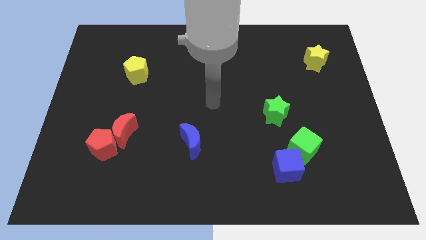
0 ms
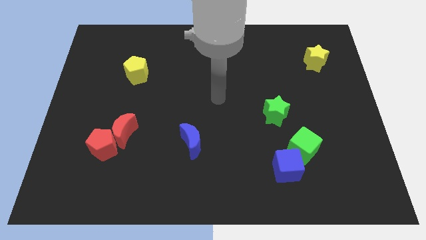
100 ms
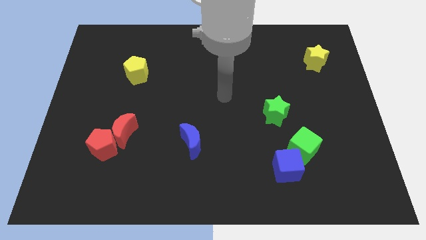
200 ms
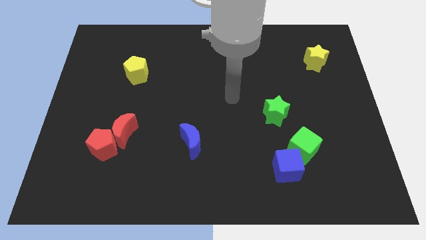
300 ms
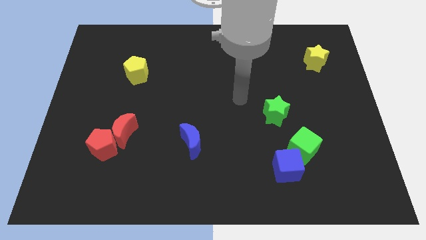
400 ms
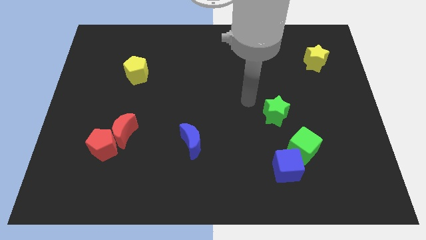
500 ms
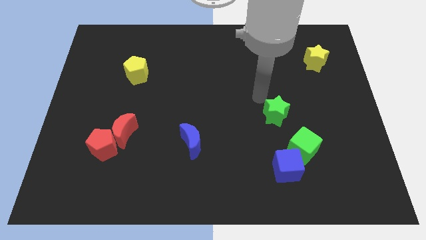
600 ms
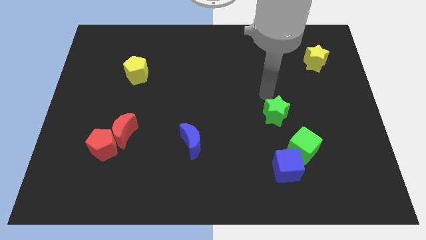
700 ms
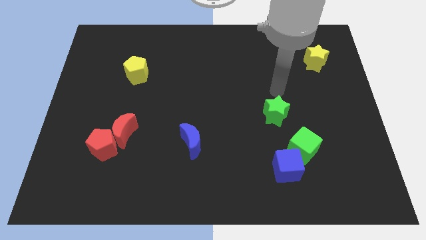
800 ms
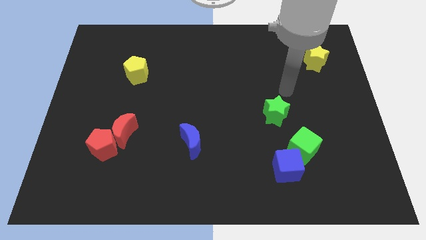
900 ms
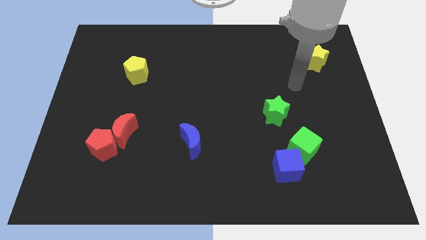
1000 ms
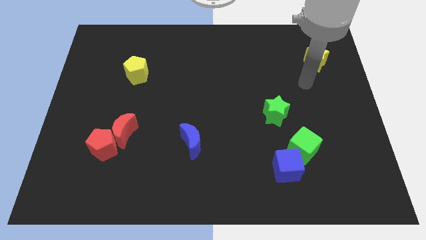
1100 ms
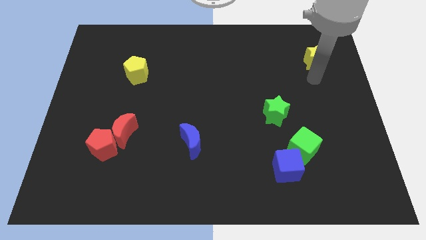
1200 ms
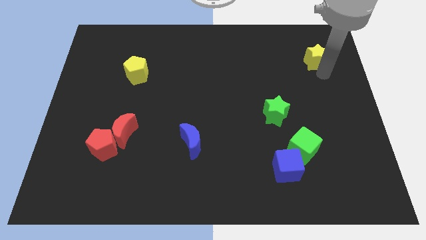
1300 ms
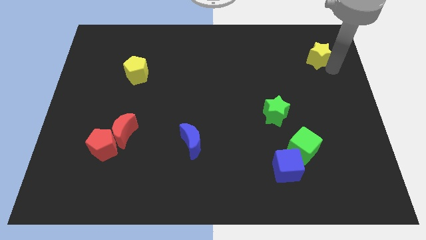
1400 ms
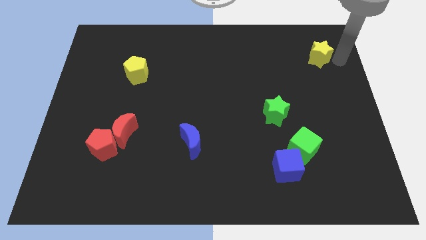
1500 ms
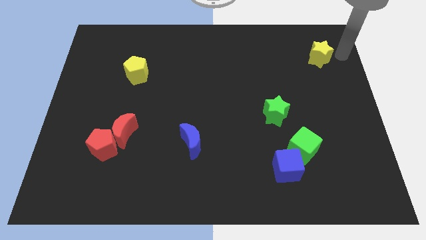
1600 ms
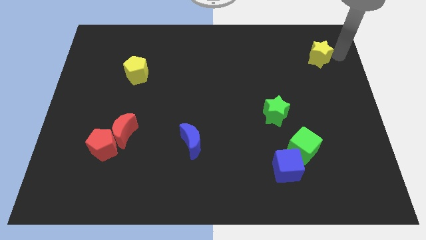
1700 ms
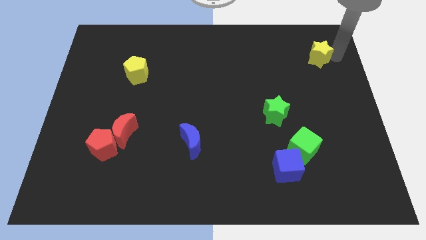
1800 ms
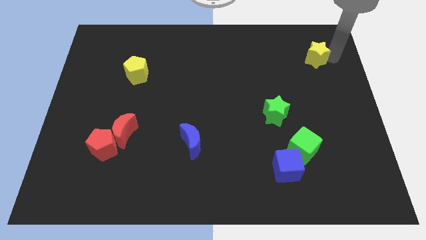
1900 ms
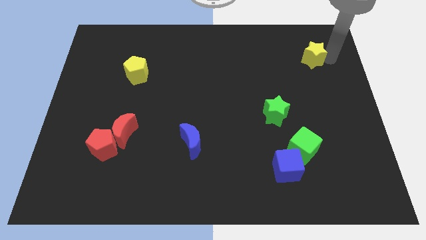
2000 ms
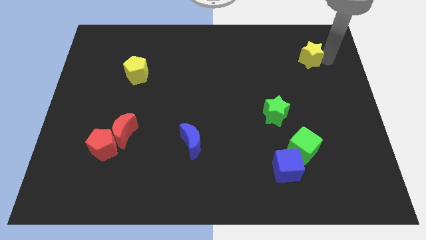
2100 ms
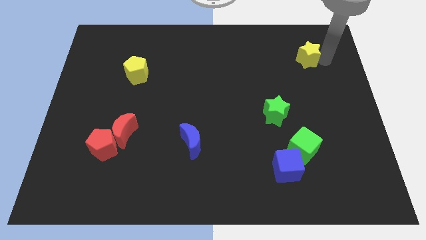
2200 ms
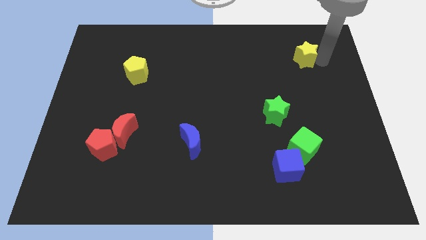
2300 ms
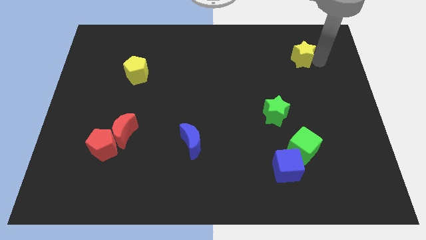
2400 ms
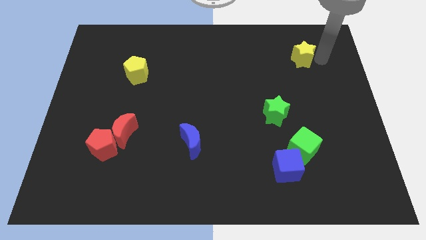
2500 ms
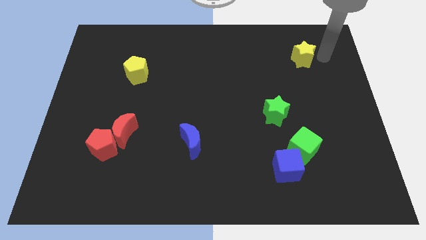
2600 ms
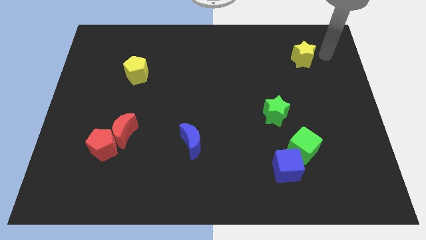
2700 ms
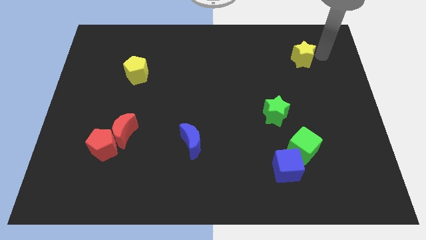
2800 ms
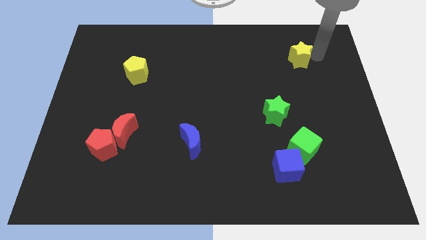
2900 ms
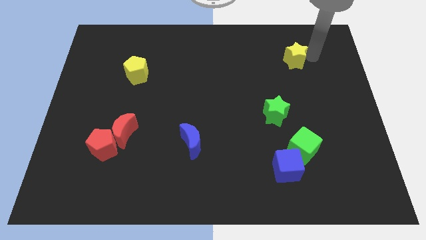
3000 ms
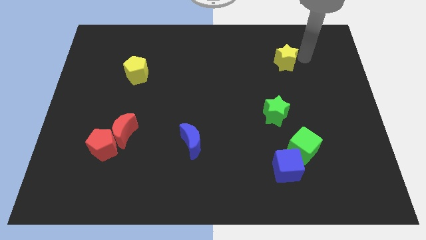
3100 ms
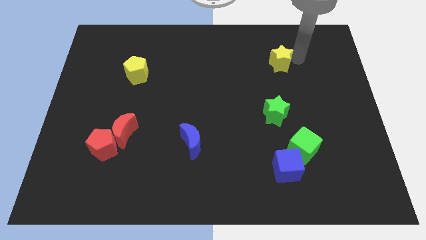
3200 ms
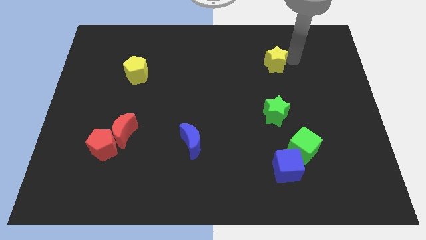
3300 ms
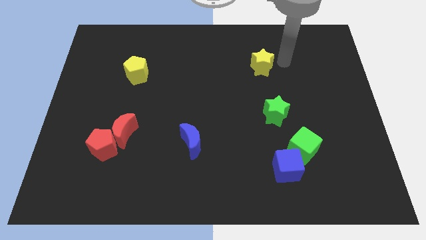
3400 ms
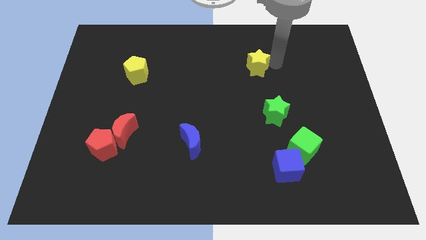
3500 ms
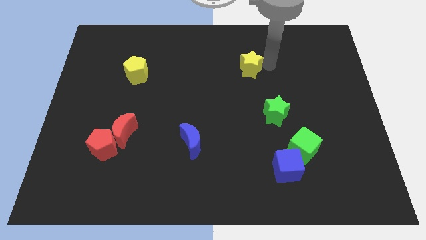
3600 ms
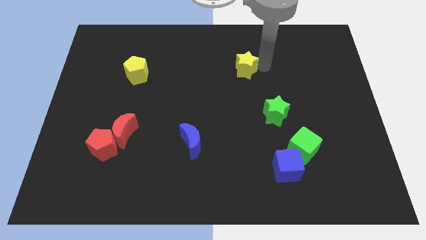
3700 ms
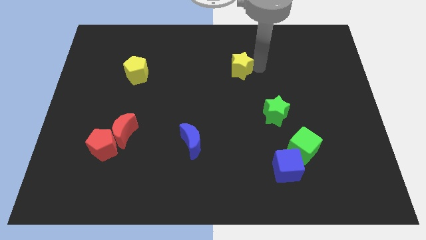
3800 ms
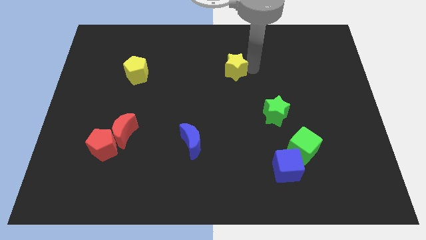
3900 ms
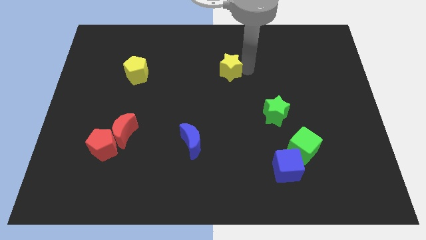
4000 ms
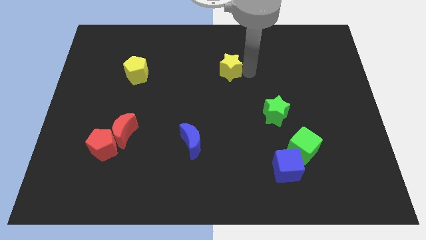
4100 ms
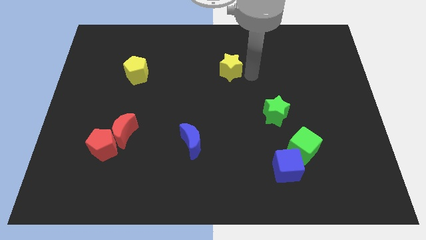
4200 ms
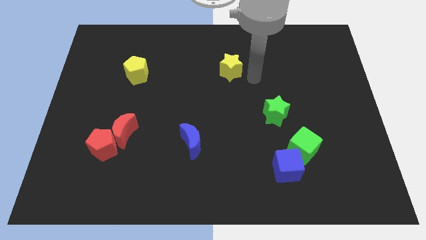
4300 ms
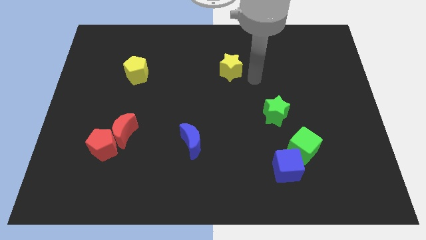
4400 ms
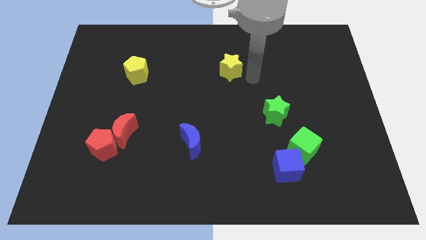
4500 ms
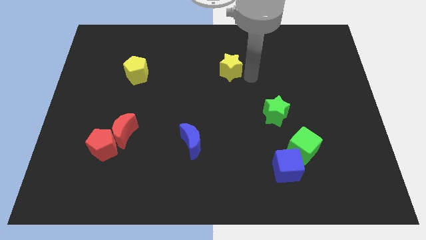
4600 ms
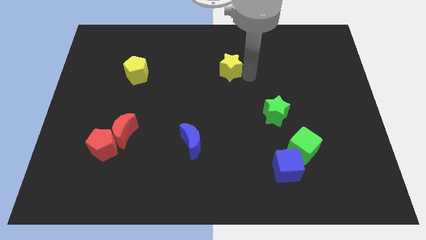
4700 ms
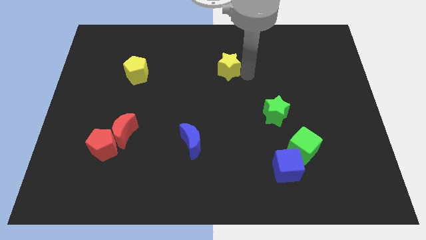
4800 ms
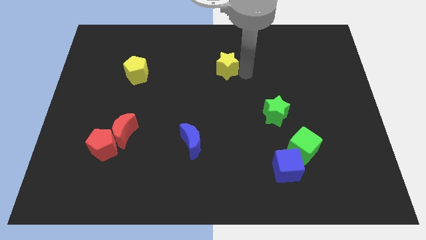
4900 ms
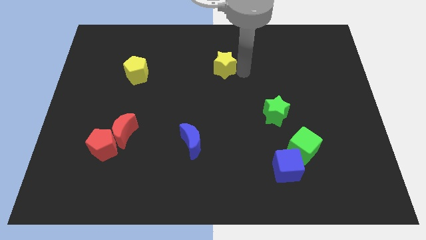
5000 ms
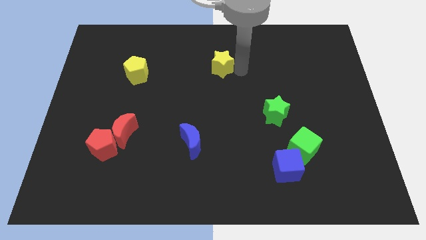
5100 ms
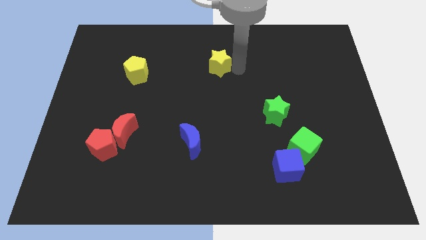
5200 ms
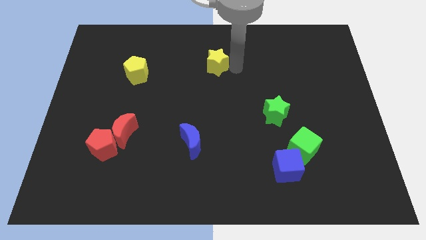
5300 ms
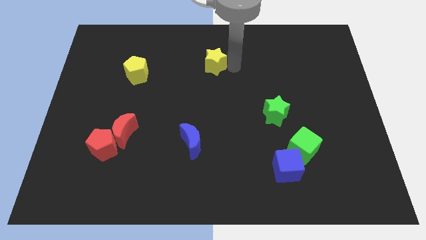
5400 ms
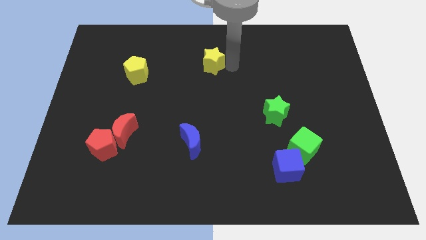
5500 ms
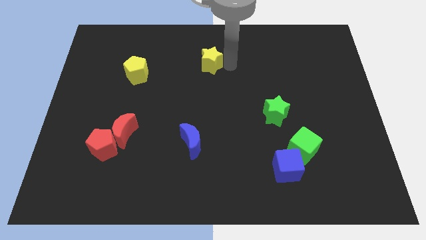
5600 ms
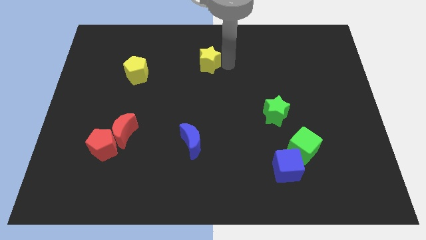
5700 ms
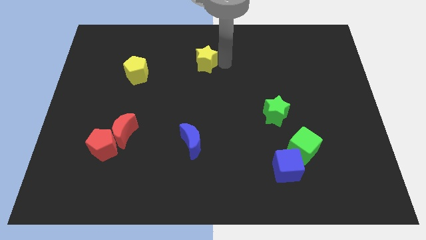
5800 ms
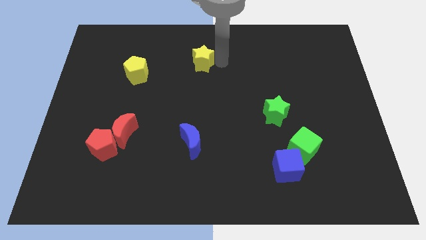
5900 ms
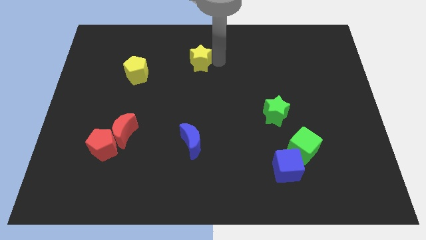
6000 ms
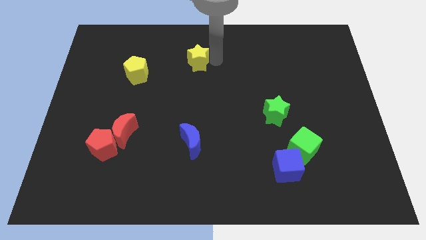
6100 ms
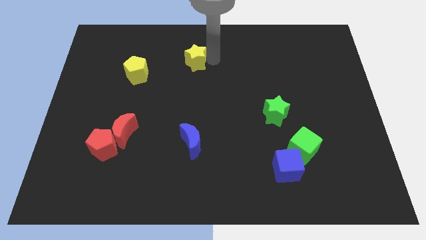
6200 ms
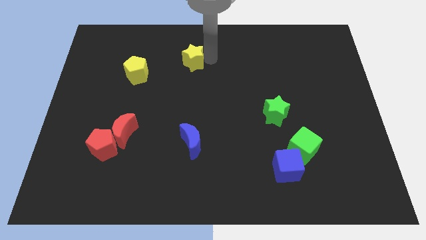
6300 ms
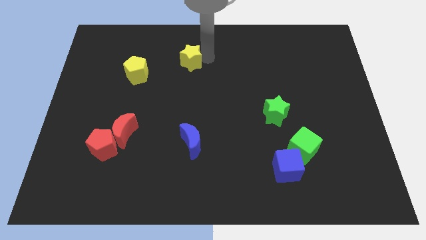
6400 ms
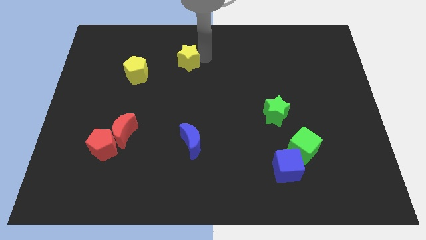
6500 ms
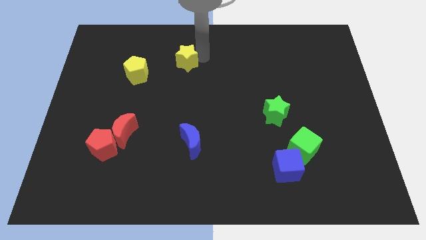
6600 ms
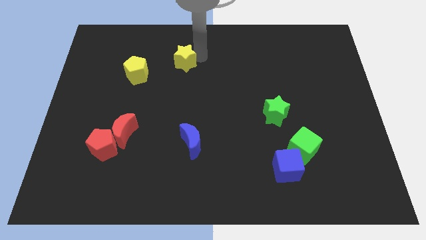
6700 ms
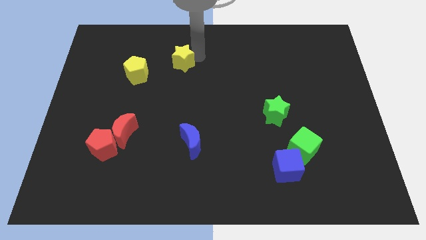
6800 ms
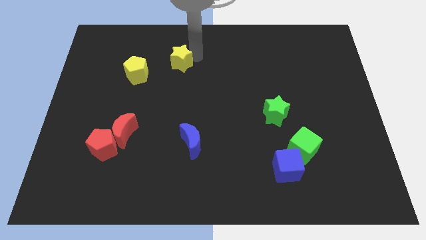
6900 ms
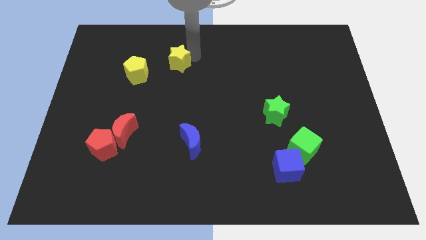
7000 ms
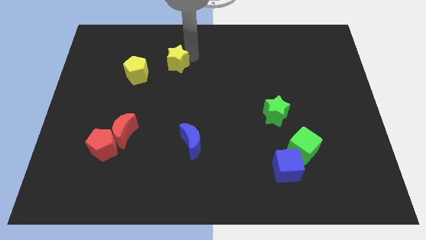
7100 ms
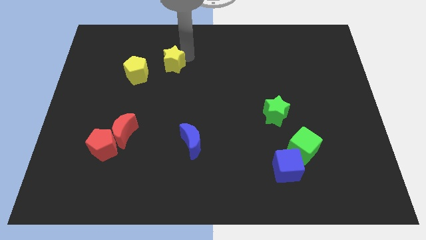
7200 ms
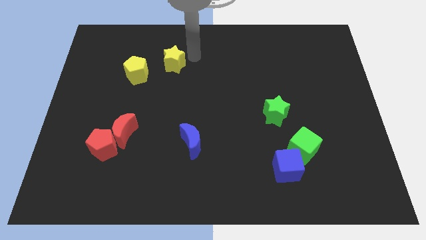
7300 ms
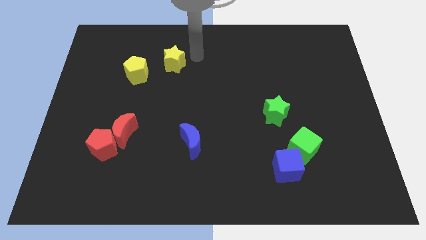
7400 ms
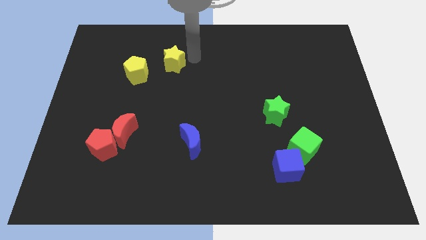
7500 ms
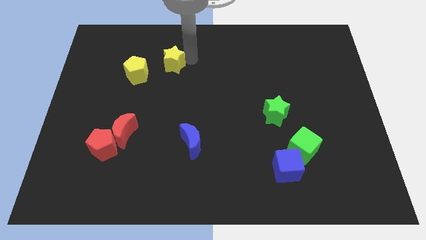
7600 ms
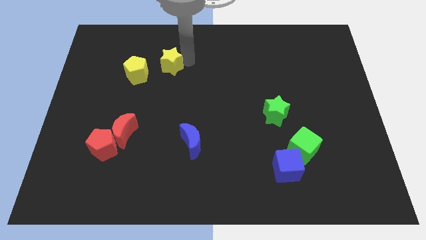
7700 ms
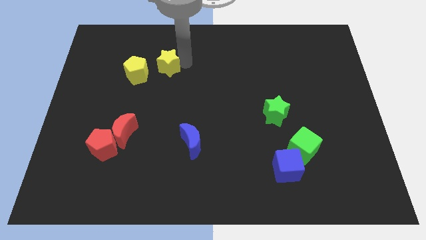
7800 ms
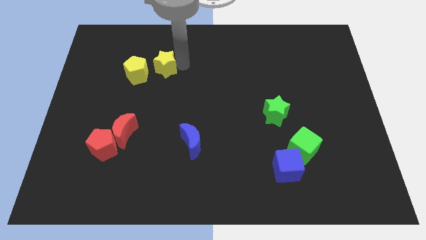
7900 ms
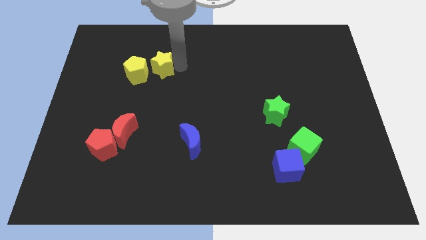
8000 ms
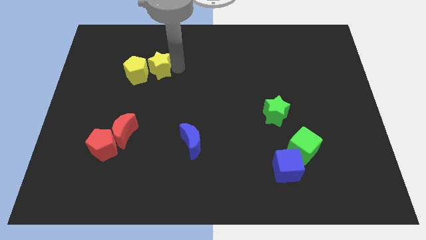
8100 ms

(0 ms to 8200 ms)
slide the yellow star close to the yellow pentagon
